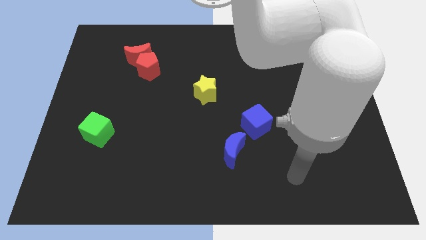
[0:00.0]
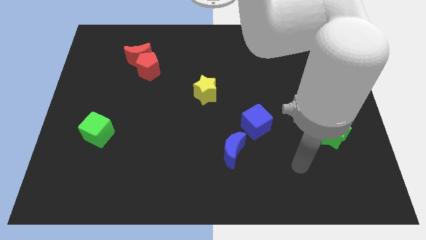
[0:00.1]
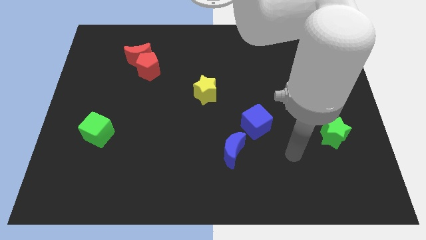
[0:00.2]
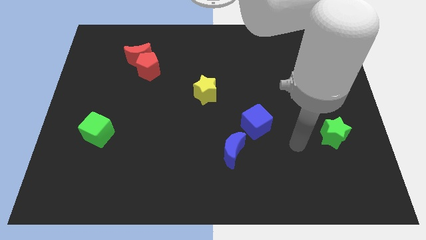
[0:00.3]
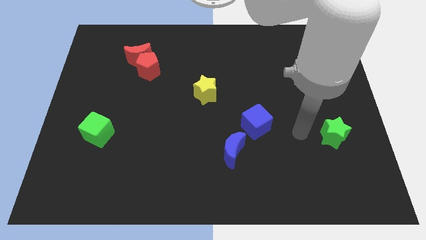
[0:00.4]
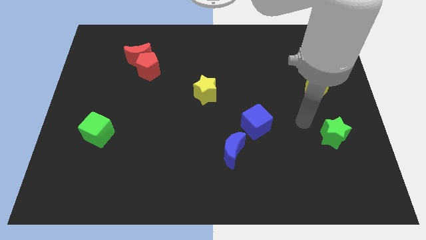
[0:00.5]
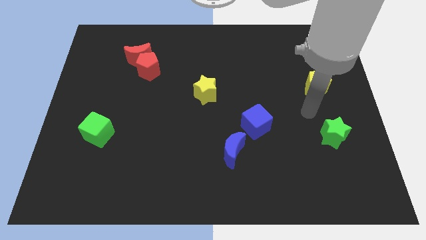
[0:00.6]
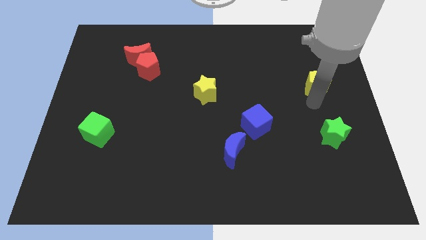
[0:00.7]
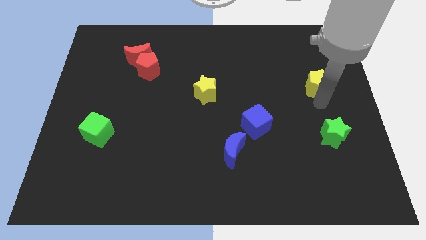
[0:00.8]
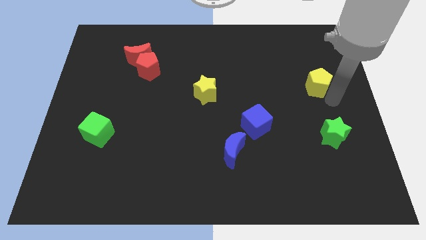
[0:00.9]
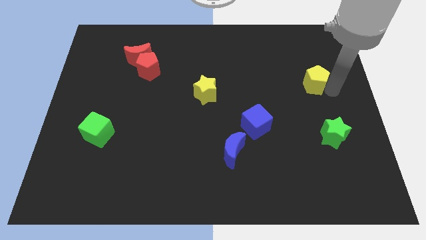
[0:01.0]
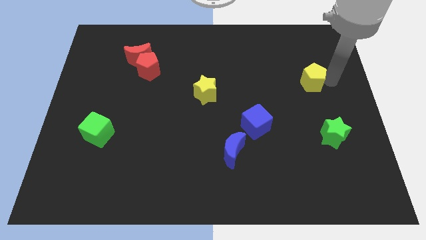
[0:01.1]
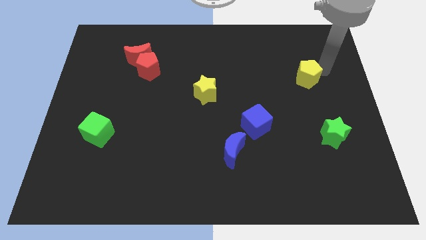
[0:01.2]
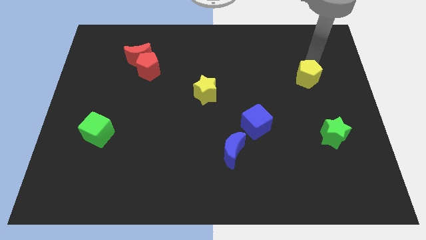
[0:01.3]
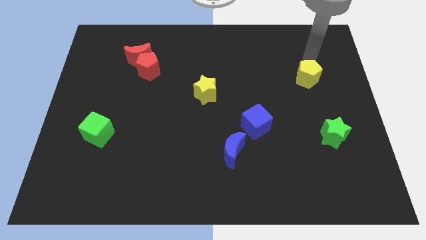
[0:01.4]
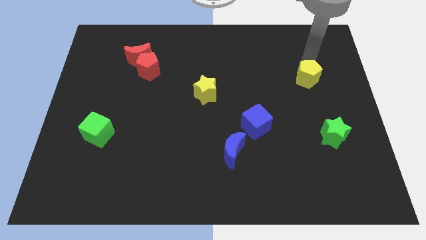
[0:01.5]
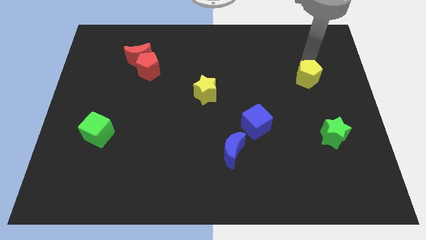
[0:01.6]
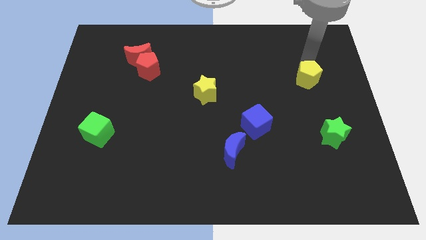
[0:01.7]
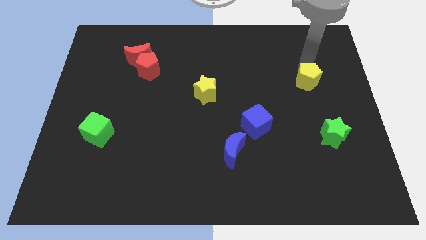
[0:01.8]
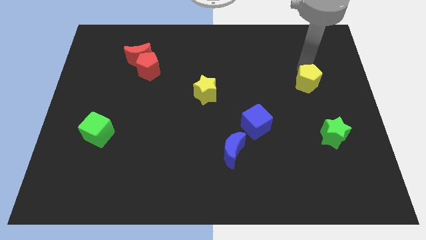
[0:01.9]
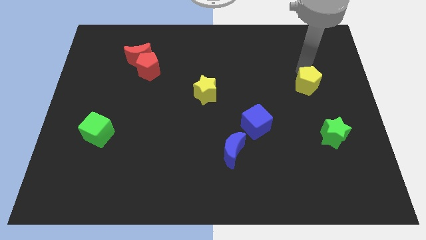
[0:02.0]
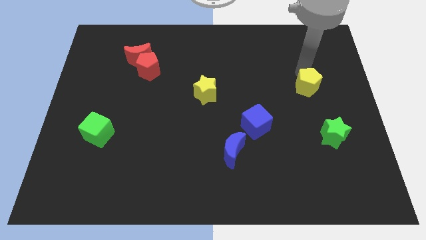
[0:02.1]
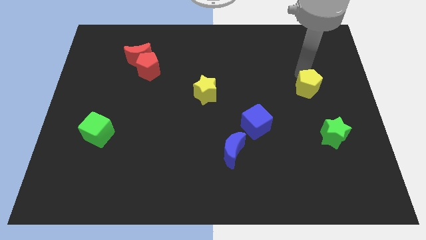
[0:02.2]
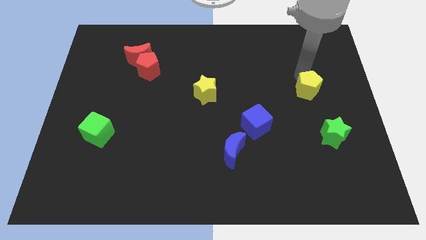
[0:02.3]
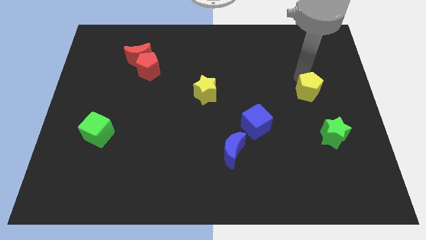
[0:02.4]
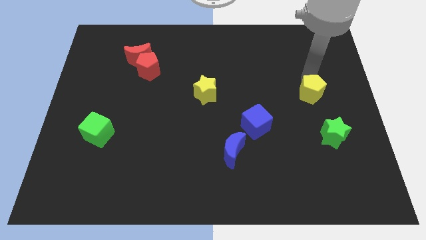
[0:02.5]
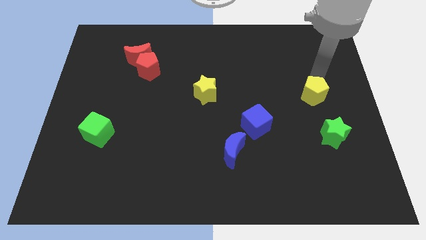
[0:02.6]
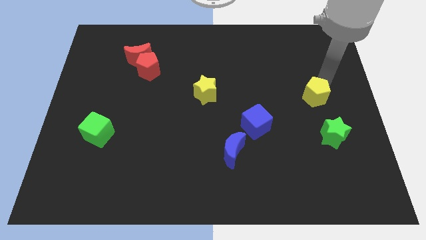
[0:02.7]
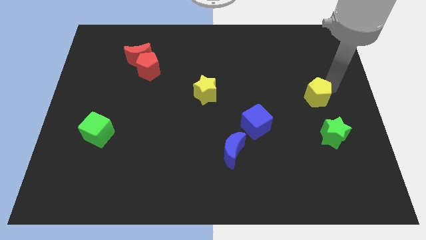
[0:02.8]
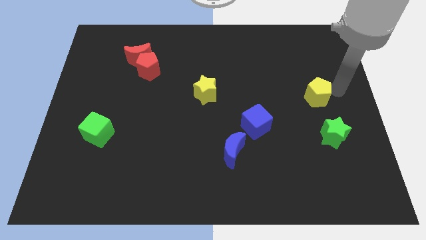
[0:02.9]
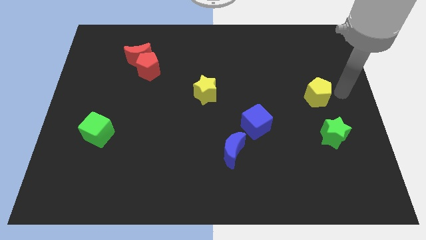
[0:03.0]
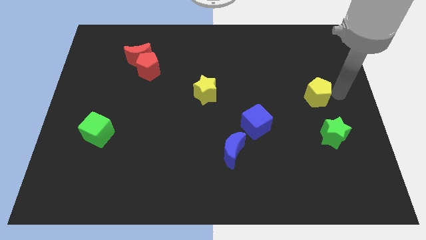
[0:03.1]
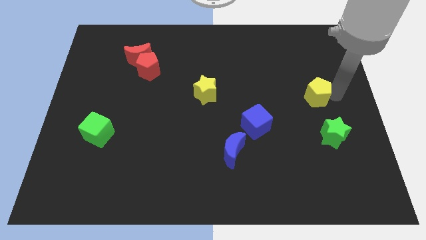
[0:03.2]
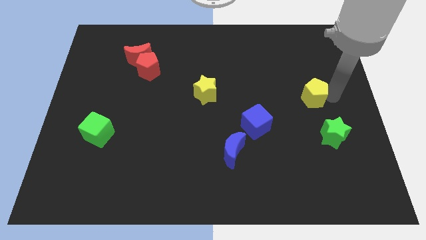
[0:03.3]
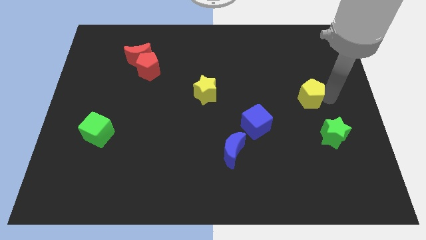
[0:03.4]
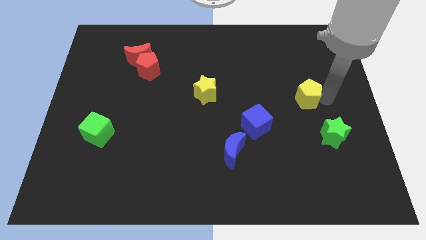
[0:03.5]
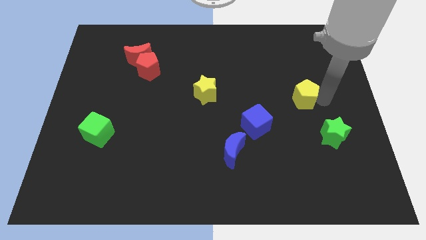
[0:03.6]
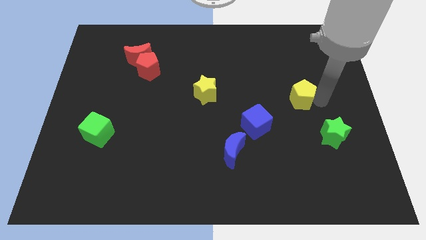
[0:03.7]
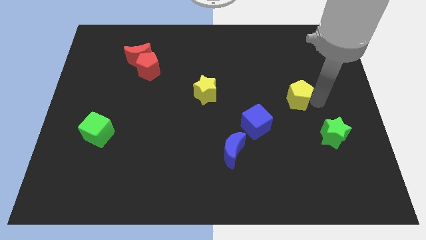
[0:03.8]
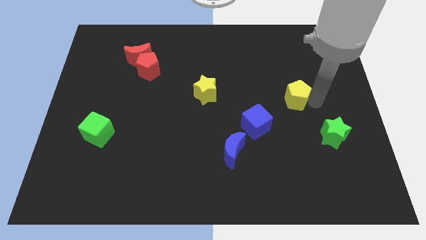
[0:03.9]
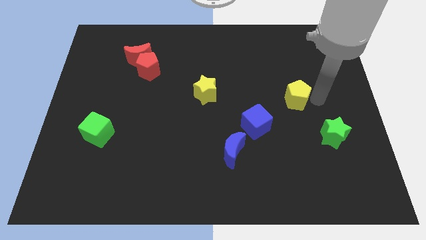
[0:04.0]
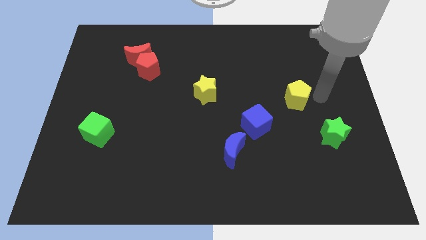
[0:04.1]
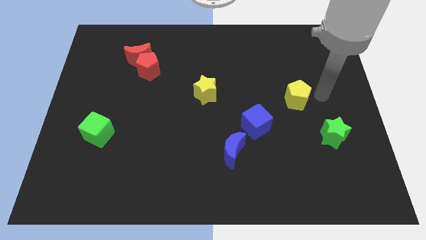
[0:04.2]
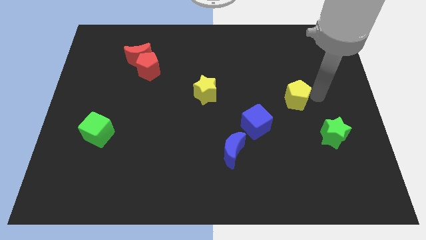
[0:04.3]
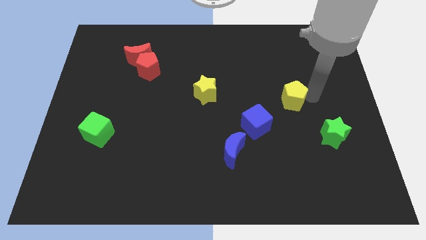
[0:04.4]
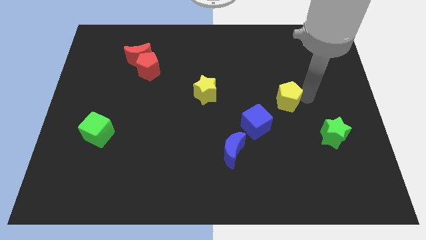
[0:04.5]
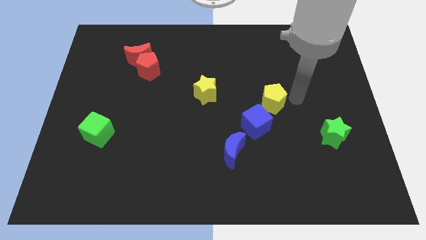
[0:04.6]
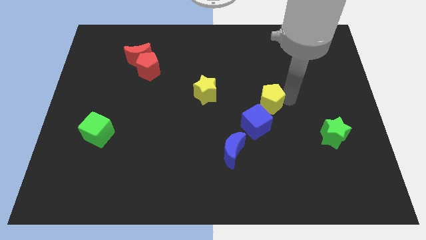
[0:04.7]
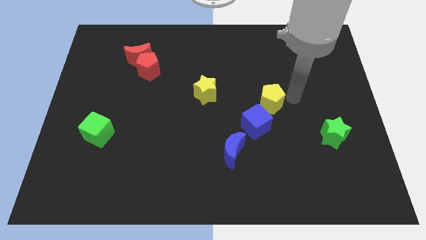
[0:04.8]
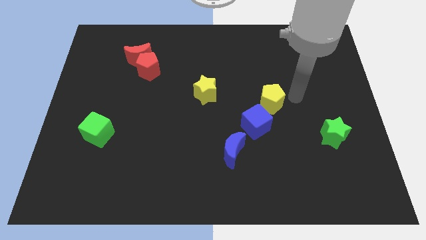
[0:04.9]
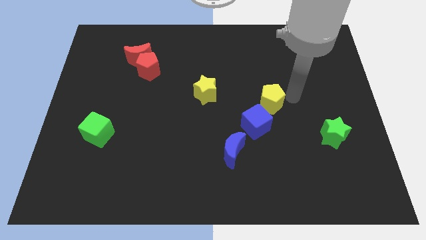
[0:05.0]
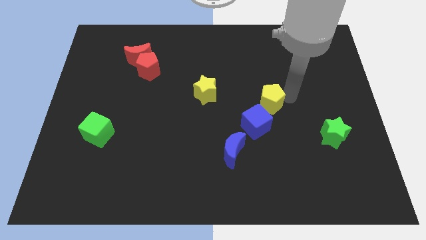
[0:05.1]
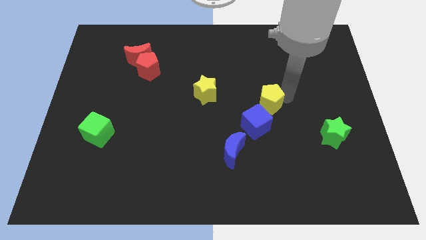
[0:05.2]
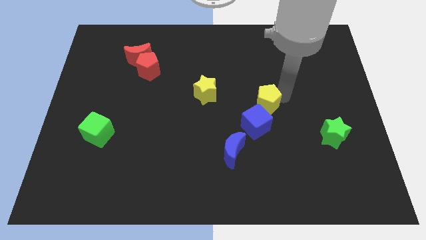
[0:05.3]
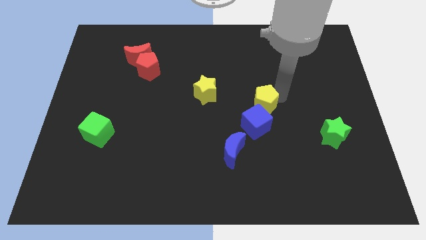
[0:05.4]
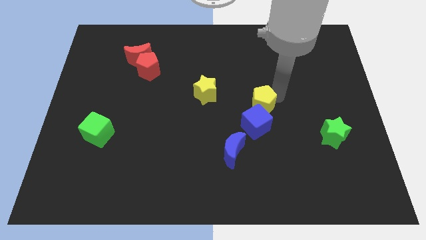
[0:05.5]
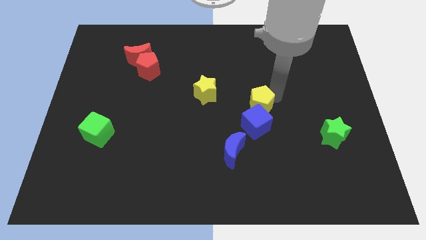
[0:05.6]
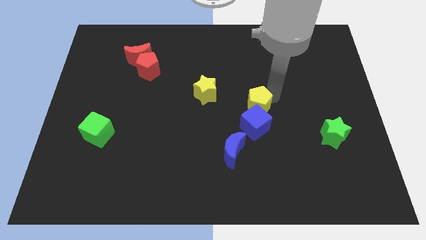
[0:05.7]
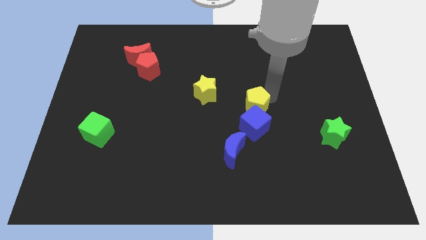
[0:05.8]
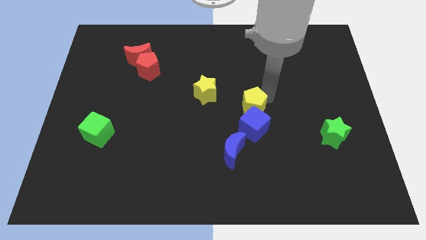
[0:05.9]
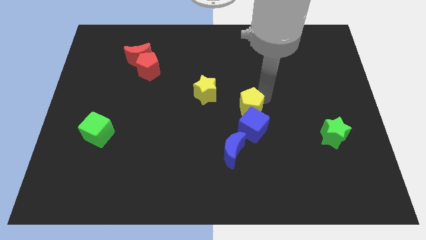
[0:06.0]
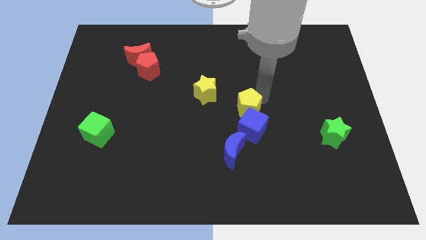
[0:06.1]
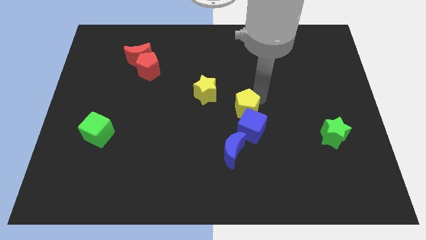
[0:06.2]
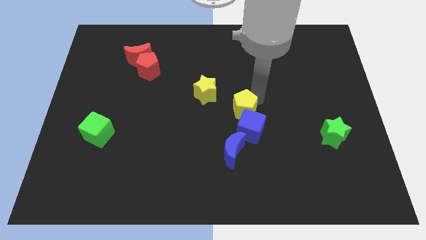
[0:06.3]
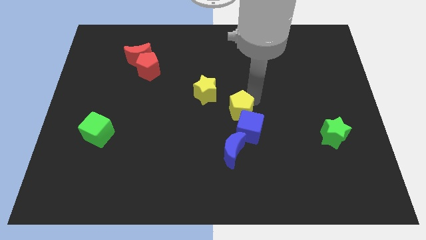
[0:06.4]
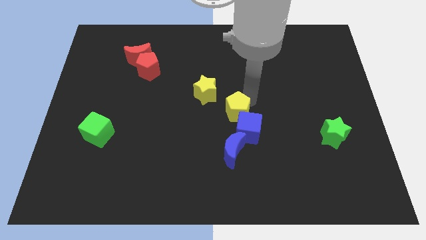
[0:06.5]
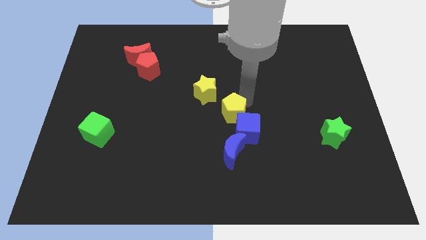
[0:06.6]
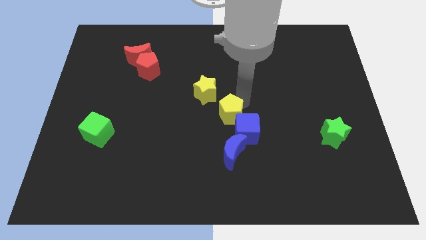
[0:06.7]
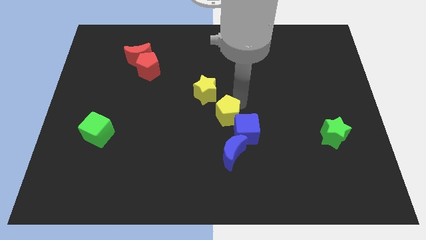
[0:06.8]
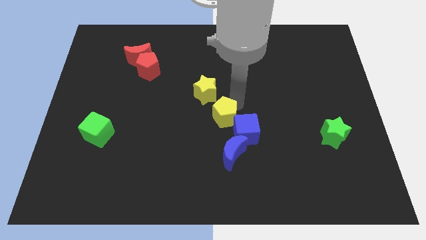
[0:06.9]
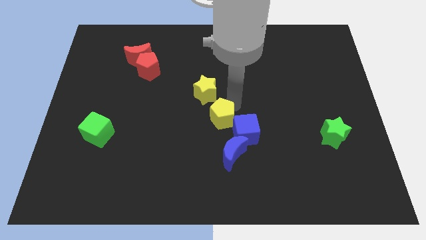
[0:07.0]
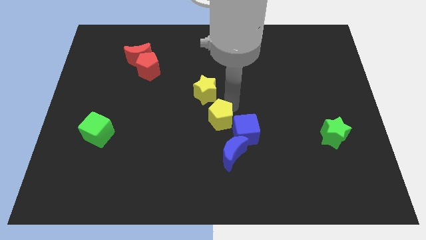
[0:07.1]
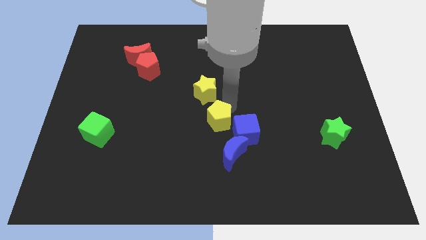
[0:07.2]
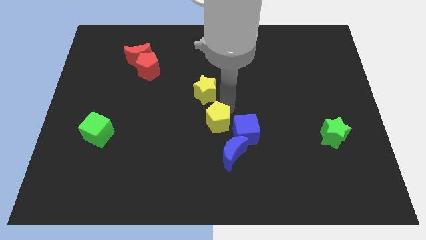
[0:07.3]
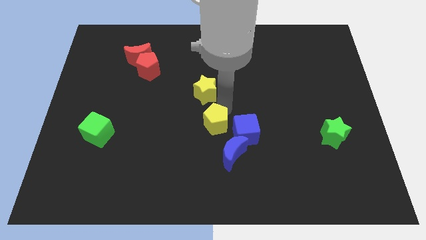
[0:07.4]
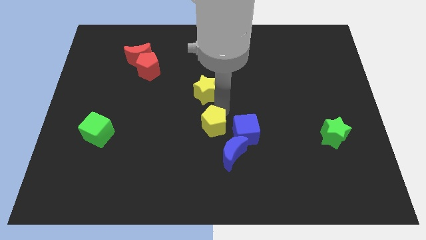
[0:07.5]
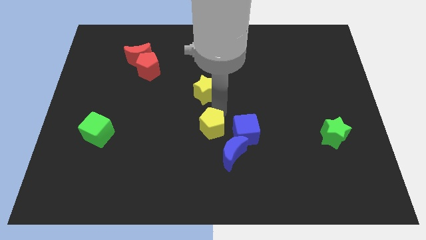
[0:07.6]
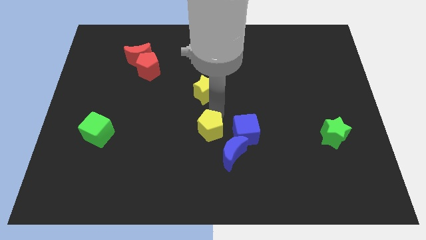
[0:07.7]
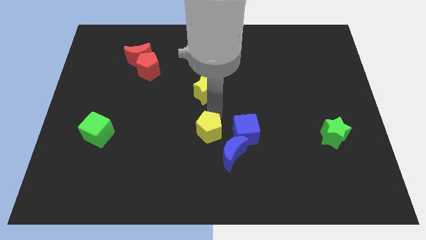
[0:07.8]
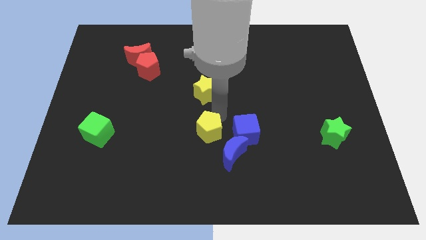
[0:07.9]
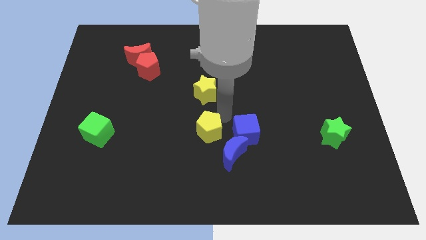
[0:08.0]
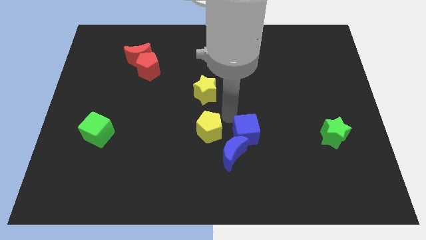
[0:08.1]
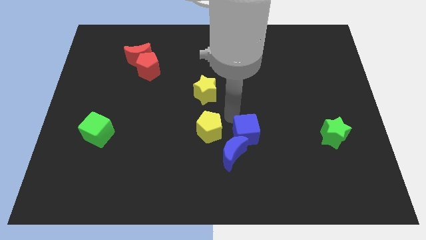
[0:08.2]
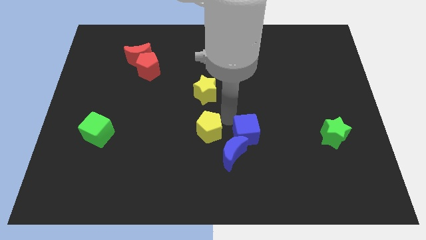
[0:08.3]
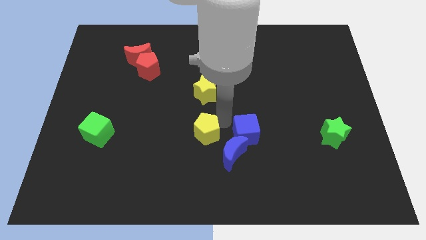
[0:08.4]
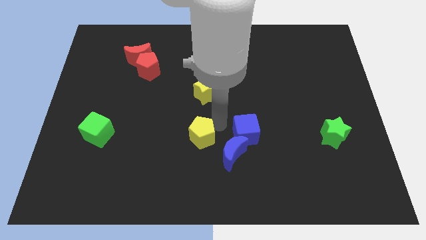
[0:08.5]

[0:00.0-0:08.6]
push the yellow pentagon left of the blue moon
